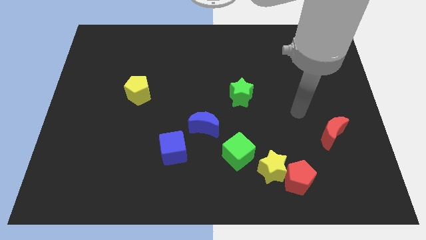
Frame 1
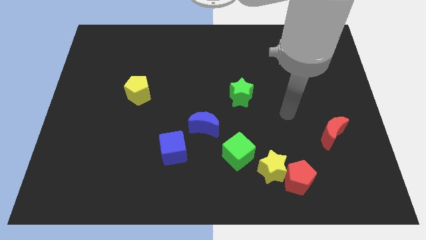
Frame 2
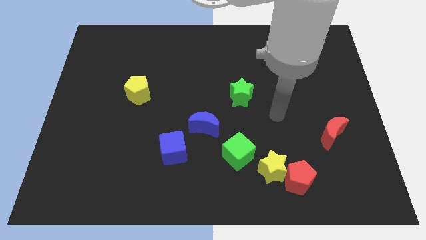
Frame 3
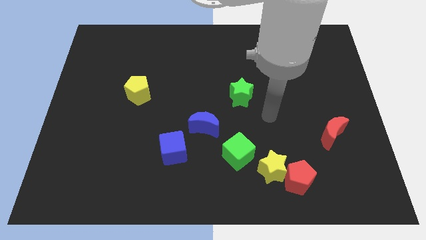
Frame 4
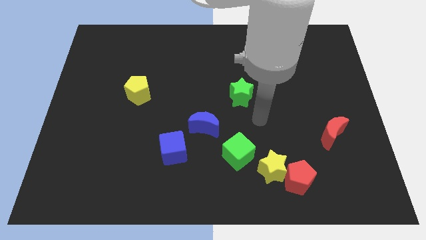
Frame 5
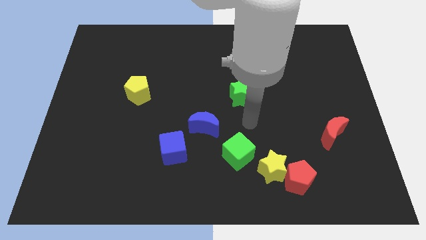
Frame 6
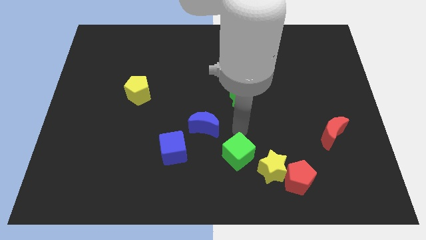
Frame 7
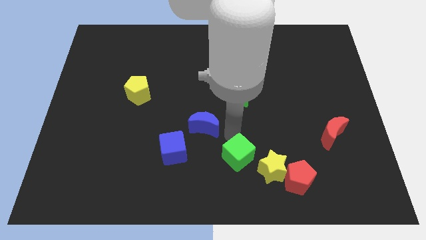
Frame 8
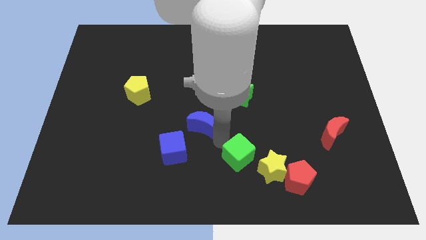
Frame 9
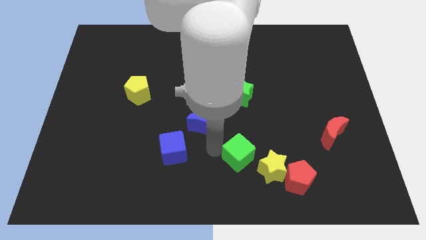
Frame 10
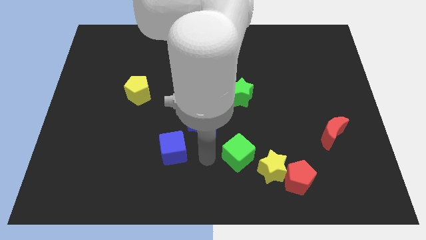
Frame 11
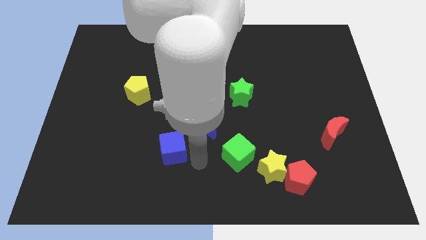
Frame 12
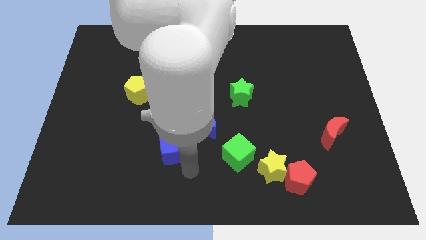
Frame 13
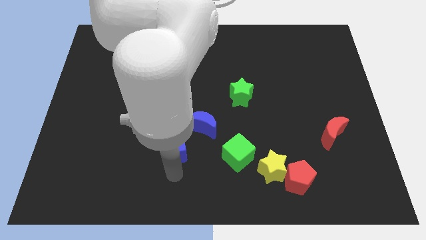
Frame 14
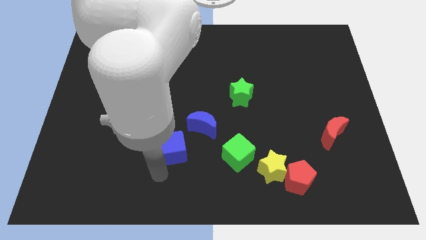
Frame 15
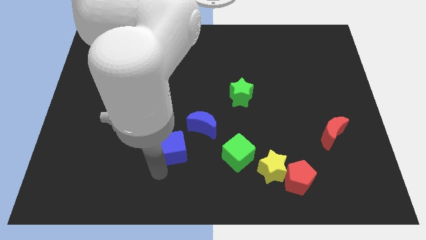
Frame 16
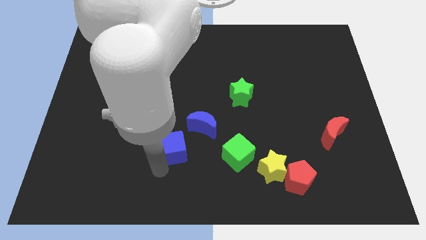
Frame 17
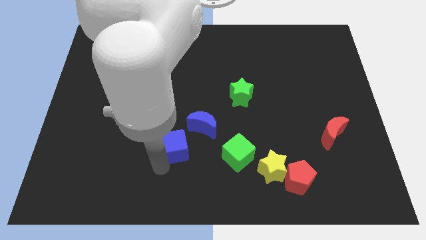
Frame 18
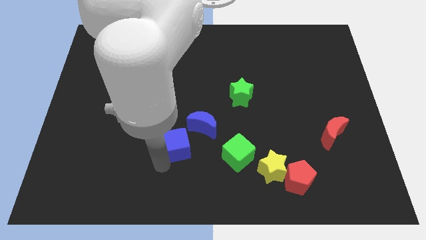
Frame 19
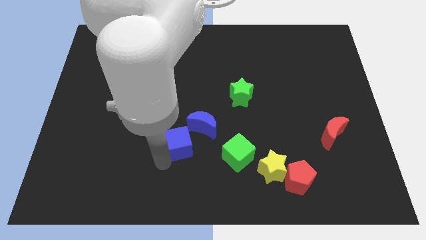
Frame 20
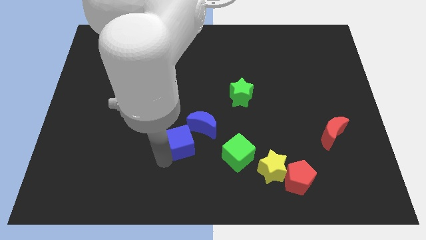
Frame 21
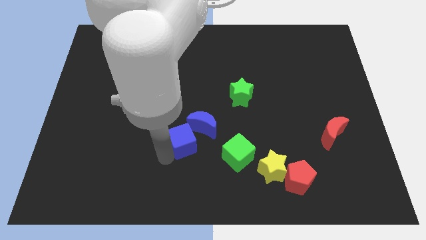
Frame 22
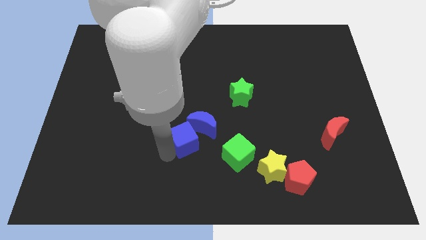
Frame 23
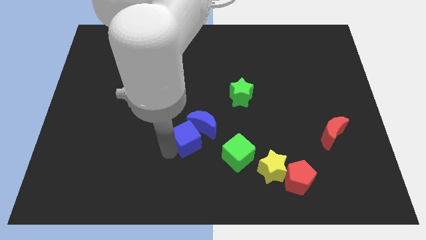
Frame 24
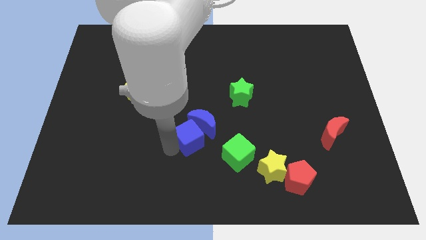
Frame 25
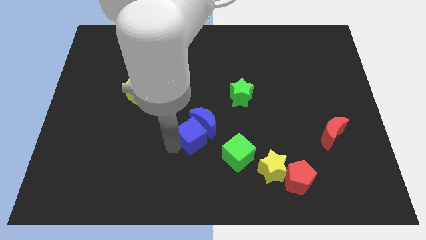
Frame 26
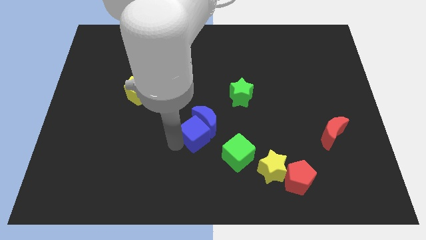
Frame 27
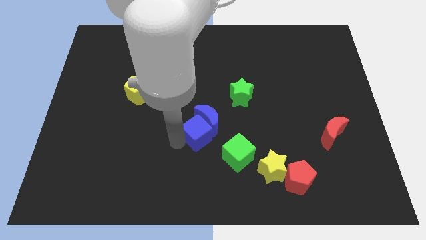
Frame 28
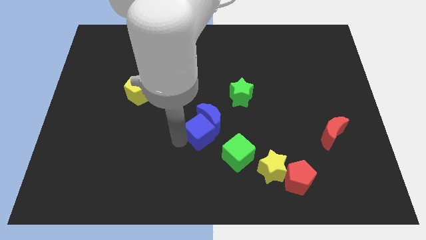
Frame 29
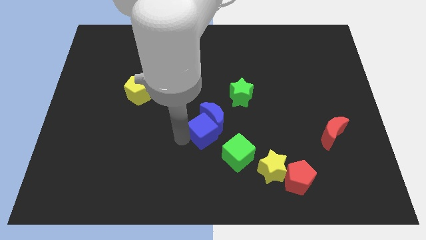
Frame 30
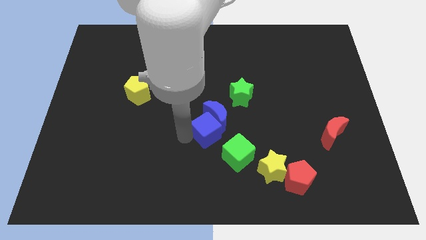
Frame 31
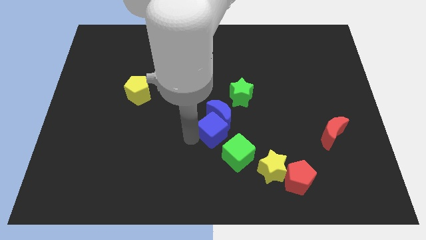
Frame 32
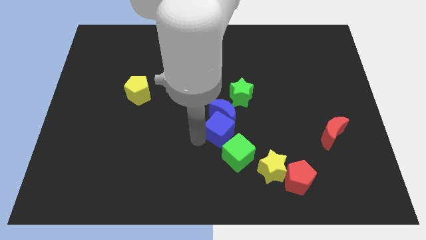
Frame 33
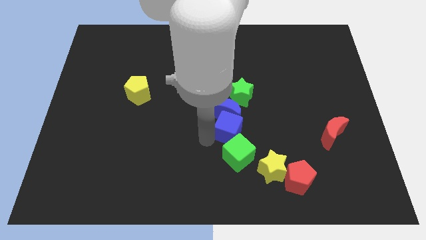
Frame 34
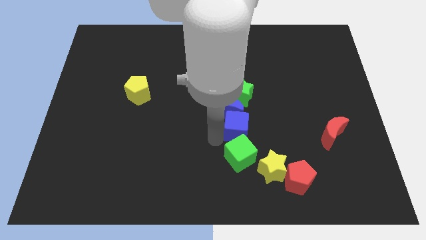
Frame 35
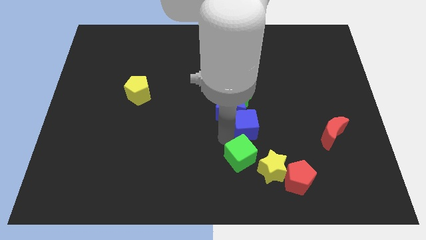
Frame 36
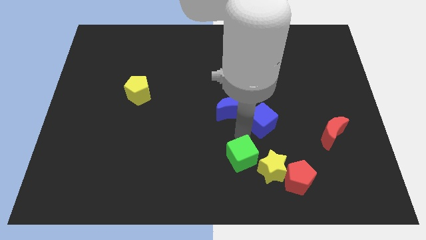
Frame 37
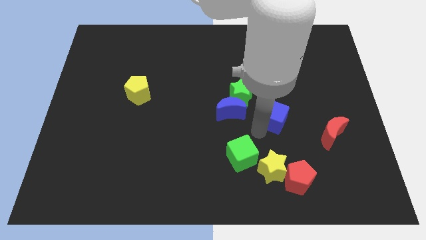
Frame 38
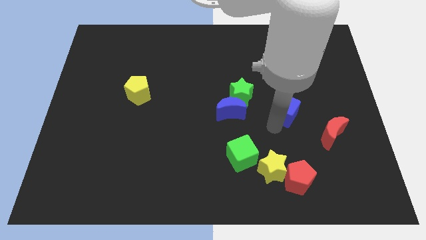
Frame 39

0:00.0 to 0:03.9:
slide the blue cube diagonally up and to the right

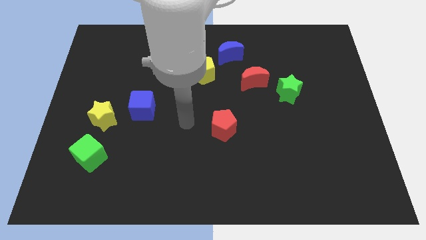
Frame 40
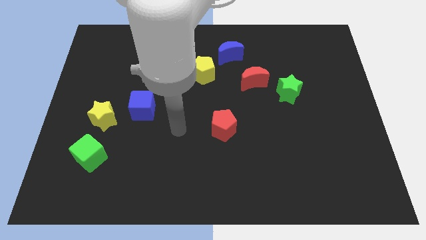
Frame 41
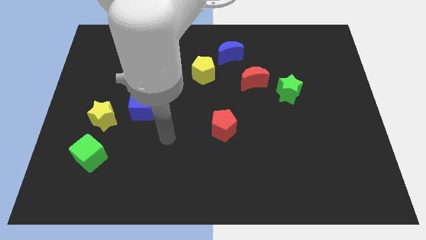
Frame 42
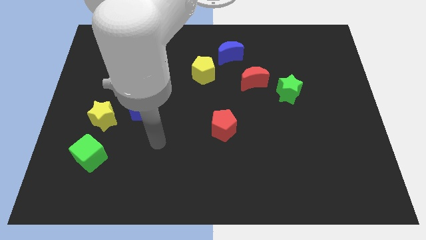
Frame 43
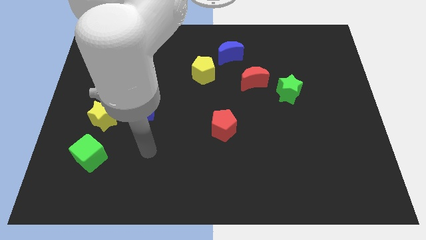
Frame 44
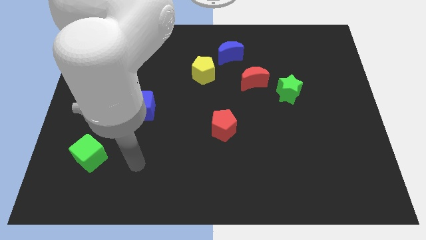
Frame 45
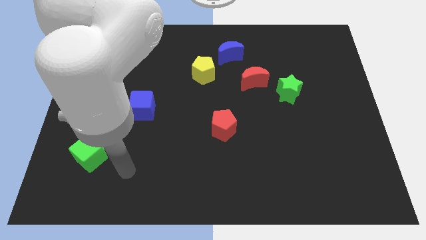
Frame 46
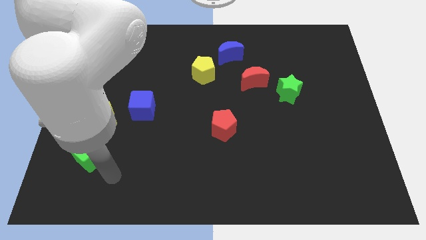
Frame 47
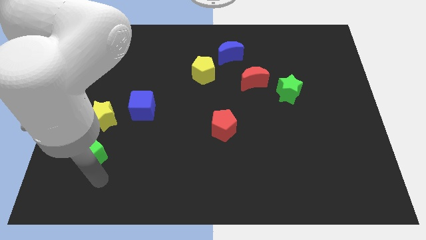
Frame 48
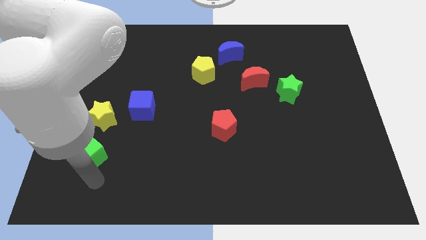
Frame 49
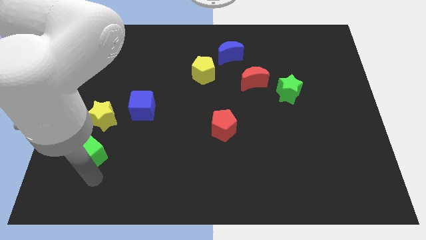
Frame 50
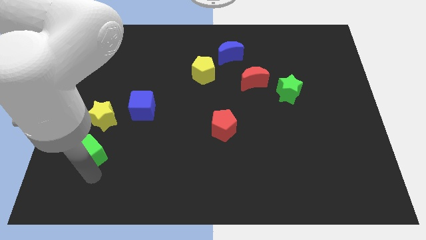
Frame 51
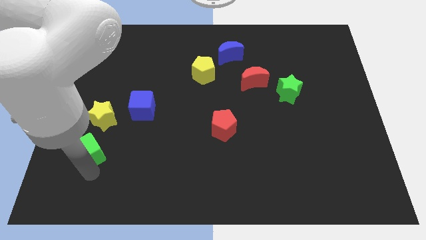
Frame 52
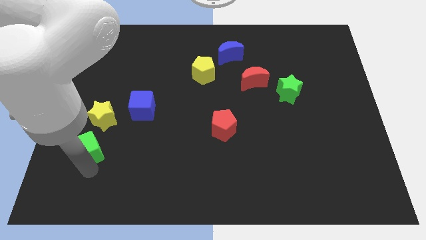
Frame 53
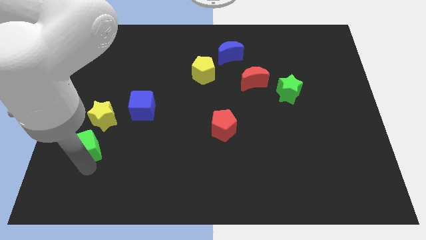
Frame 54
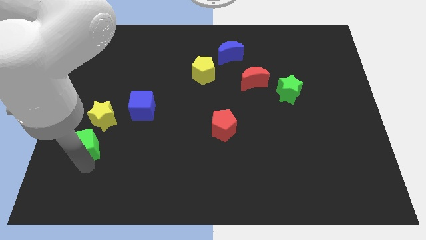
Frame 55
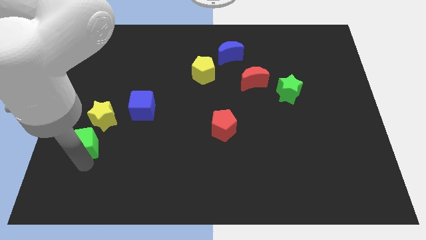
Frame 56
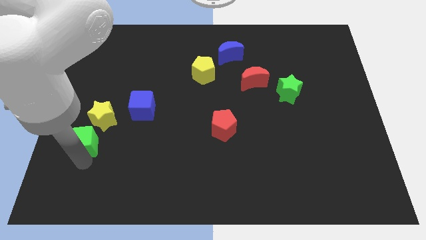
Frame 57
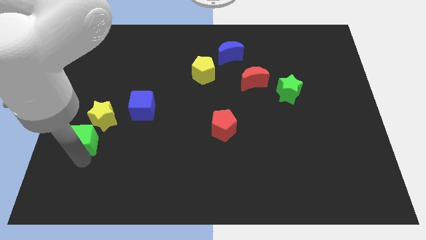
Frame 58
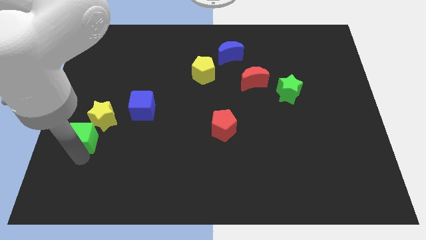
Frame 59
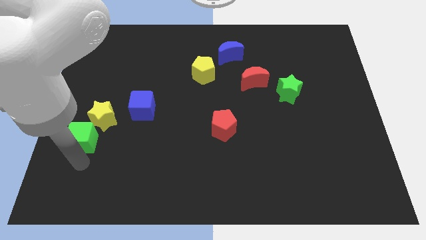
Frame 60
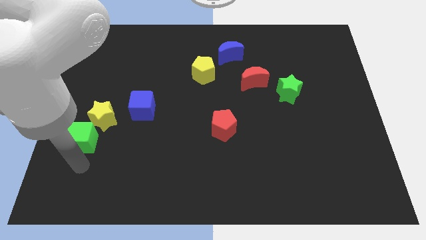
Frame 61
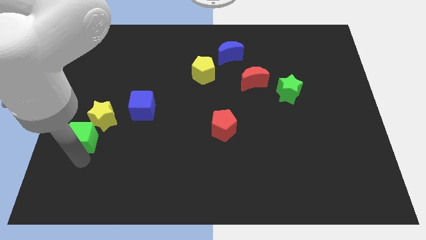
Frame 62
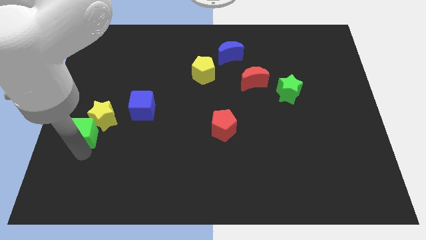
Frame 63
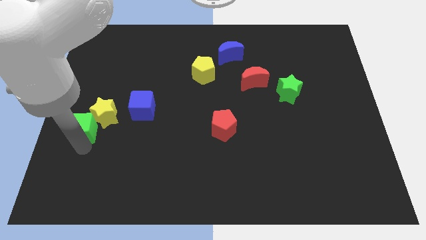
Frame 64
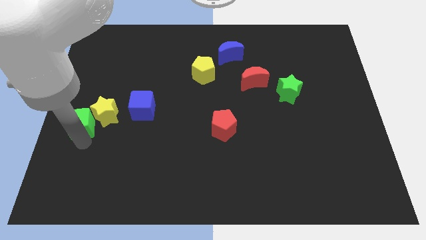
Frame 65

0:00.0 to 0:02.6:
push the green cube a little bit upwards

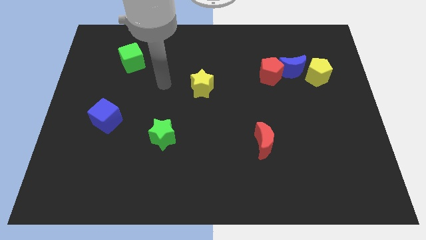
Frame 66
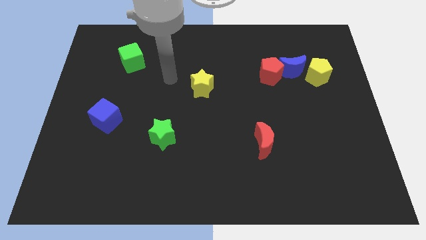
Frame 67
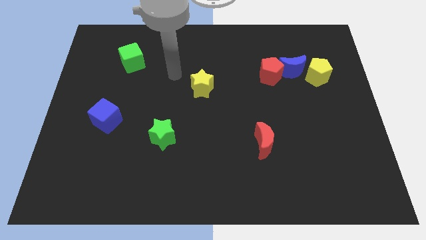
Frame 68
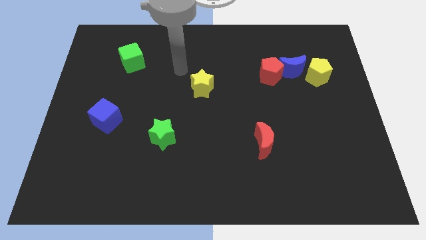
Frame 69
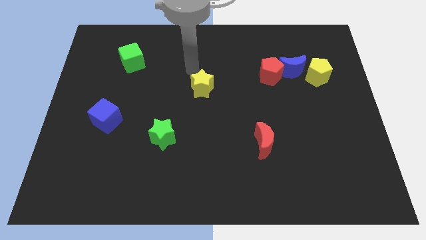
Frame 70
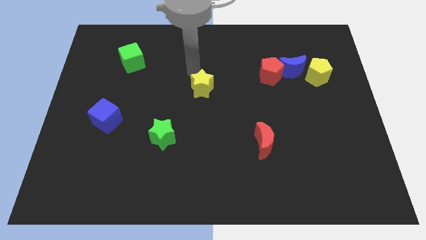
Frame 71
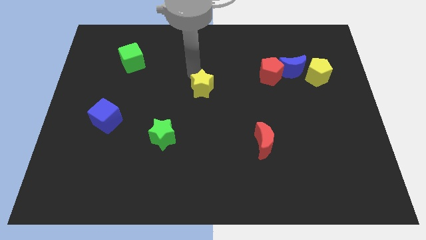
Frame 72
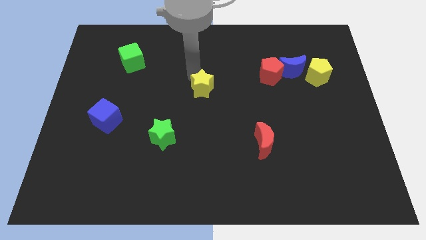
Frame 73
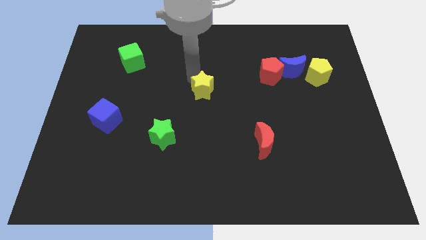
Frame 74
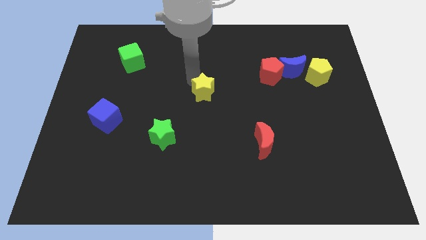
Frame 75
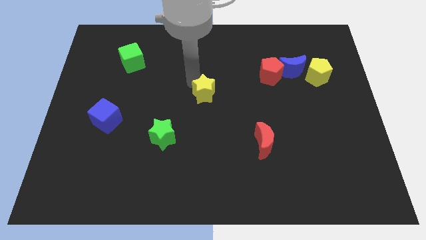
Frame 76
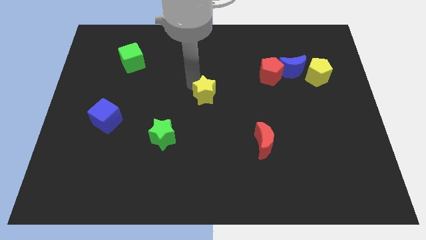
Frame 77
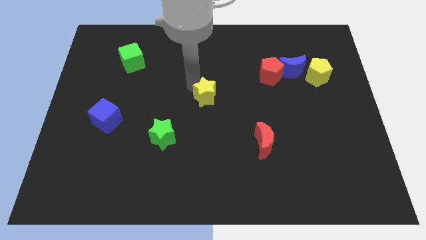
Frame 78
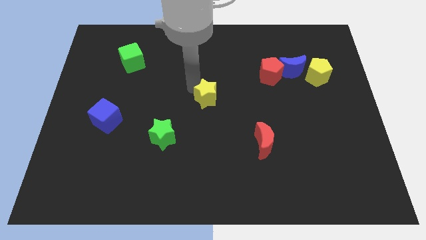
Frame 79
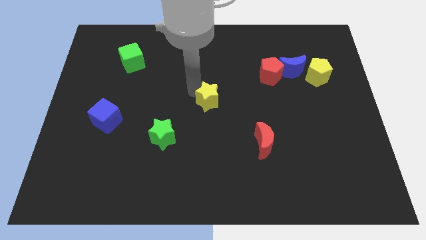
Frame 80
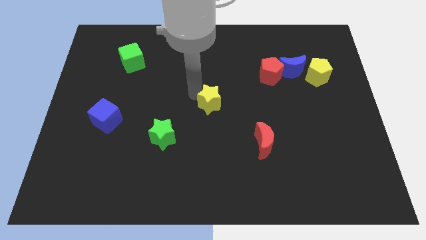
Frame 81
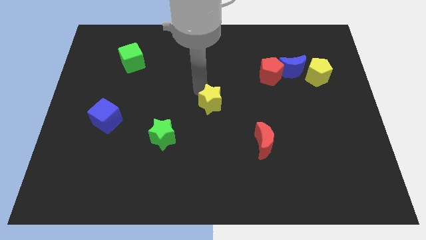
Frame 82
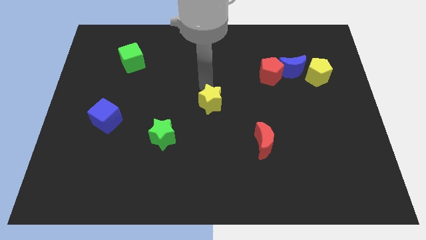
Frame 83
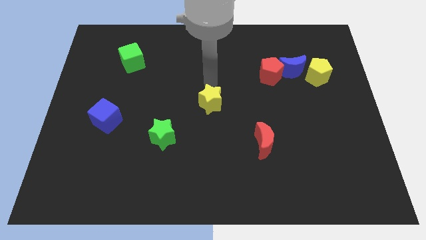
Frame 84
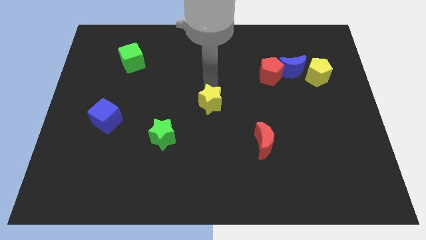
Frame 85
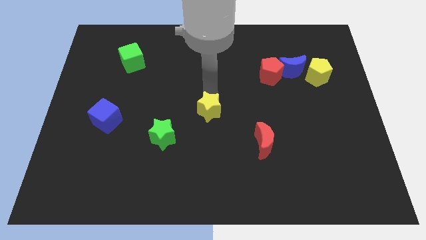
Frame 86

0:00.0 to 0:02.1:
slightly slide the yellow star downwards
